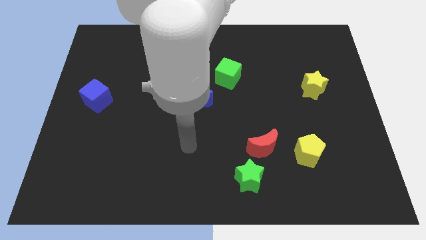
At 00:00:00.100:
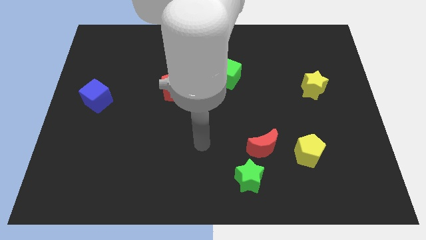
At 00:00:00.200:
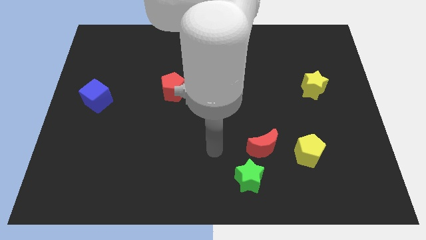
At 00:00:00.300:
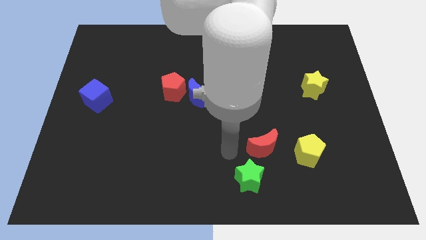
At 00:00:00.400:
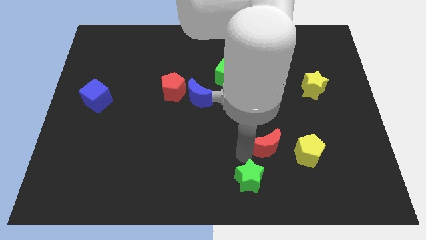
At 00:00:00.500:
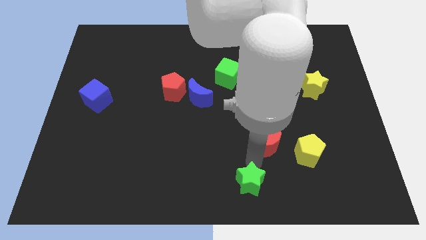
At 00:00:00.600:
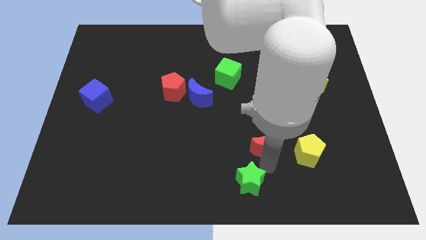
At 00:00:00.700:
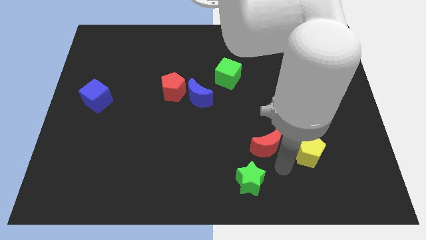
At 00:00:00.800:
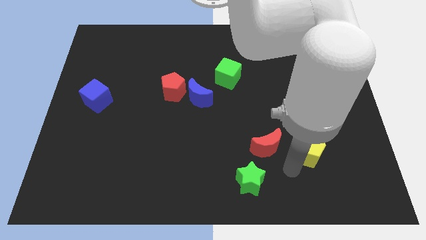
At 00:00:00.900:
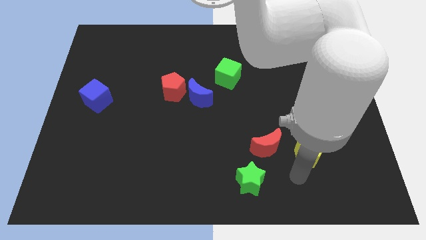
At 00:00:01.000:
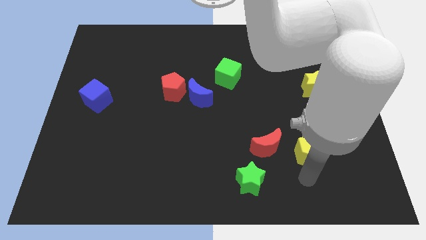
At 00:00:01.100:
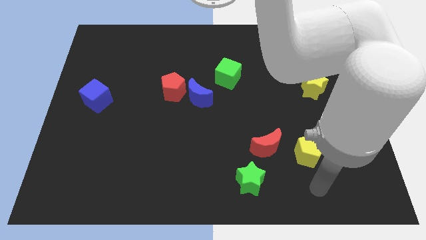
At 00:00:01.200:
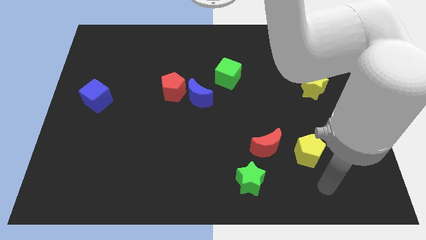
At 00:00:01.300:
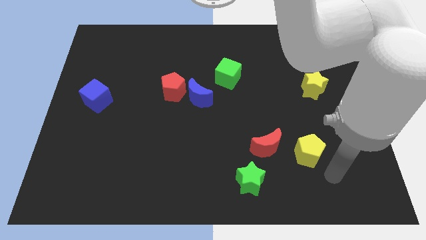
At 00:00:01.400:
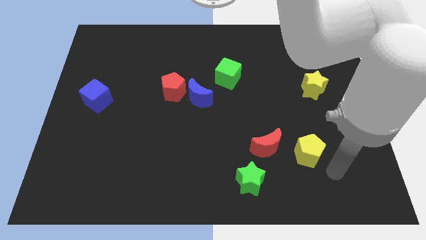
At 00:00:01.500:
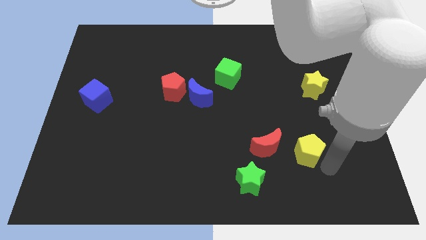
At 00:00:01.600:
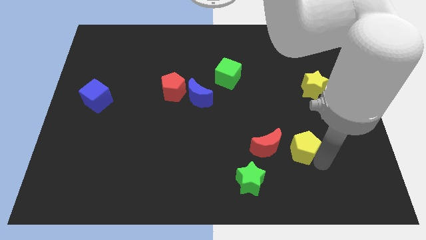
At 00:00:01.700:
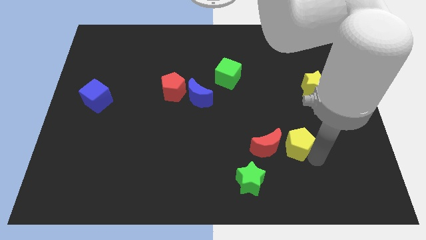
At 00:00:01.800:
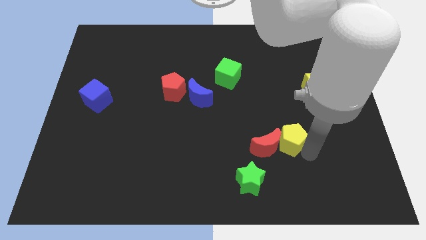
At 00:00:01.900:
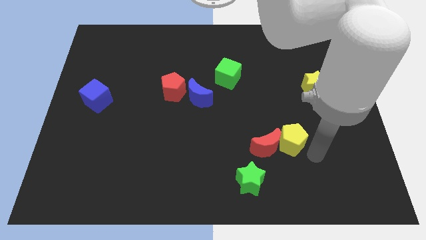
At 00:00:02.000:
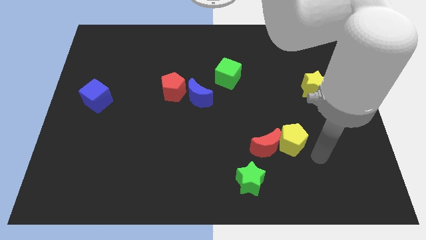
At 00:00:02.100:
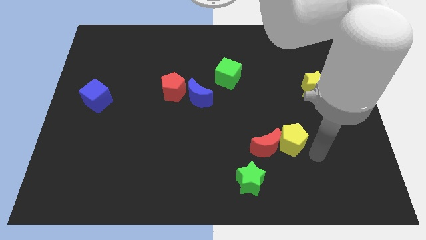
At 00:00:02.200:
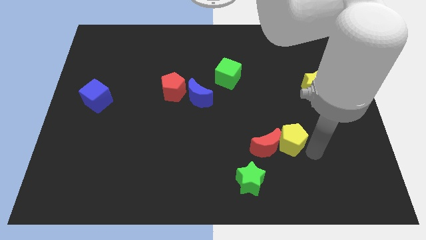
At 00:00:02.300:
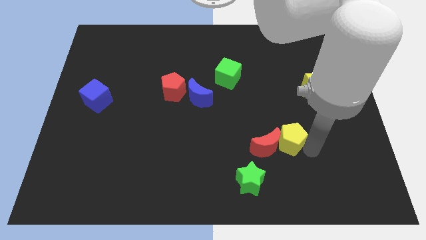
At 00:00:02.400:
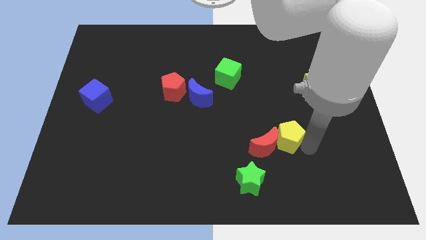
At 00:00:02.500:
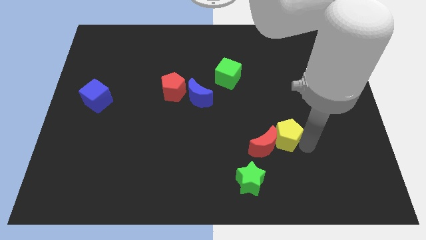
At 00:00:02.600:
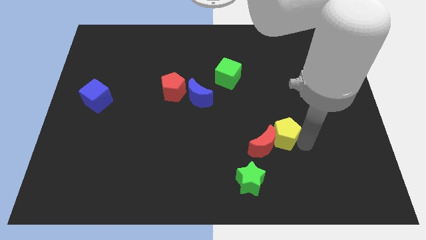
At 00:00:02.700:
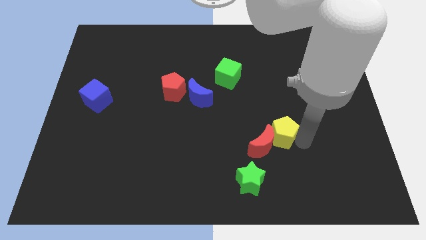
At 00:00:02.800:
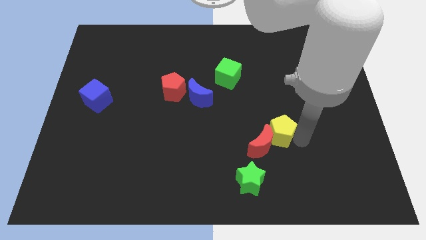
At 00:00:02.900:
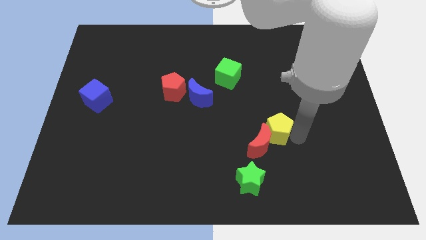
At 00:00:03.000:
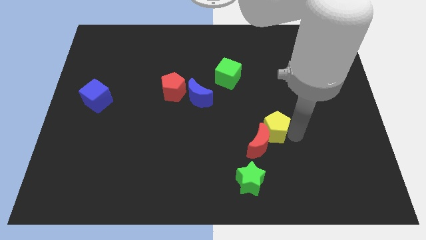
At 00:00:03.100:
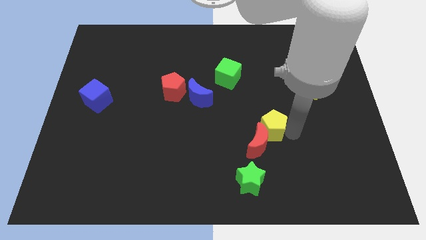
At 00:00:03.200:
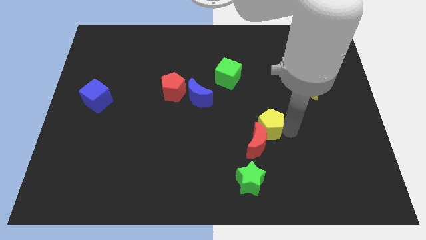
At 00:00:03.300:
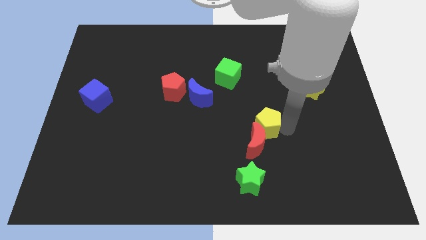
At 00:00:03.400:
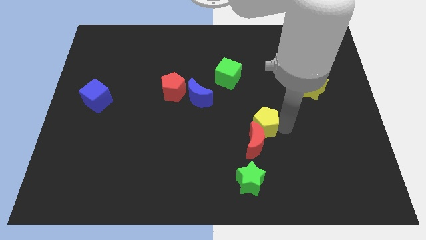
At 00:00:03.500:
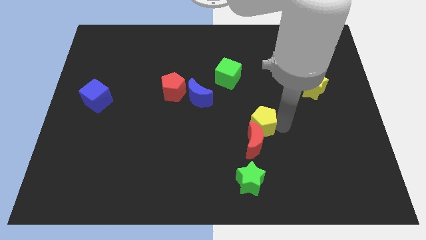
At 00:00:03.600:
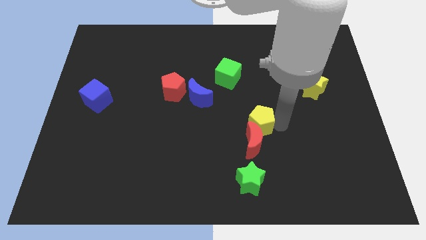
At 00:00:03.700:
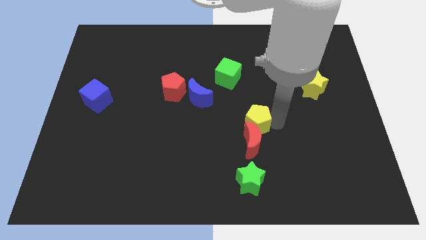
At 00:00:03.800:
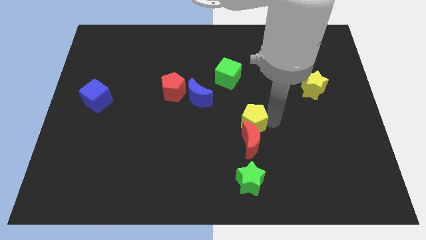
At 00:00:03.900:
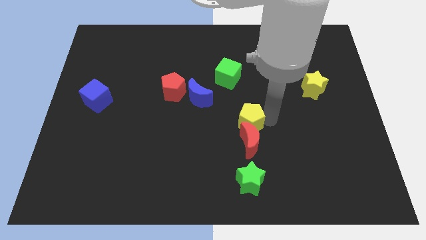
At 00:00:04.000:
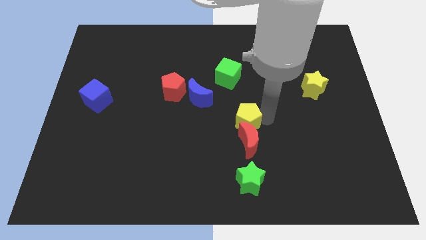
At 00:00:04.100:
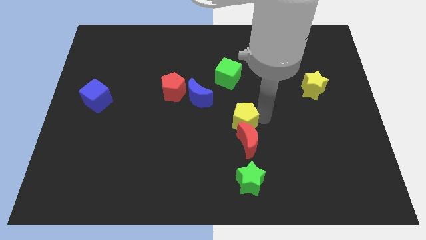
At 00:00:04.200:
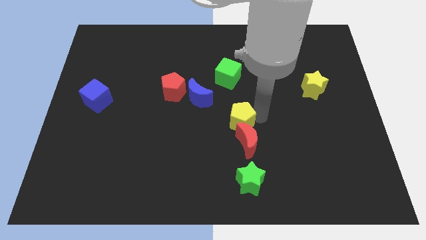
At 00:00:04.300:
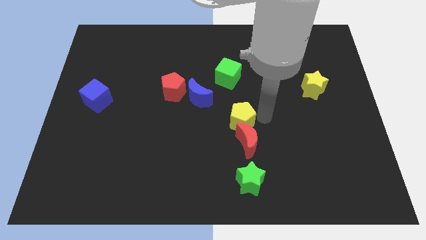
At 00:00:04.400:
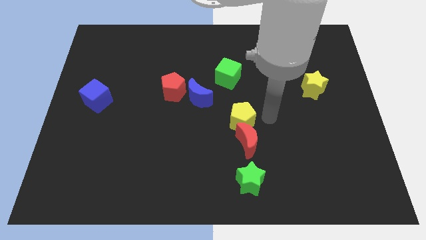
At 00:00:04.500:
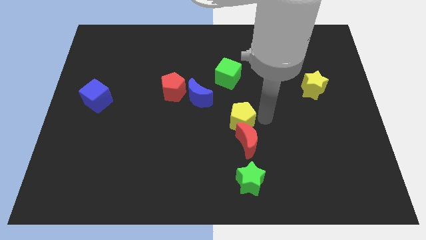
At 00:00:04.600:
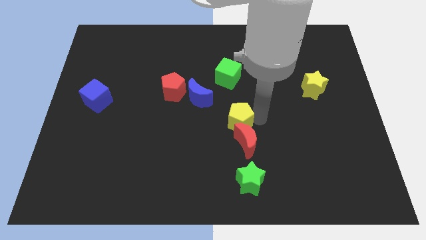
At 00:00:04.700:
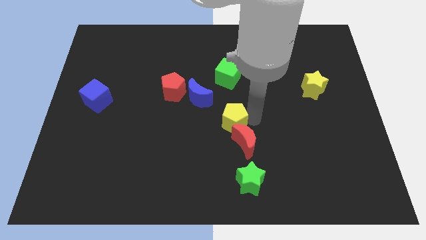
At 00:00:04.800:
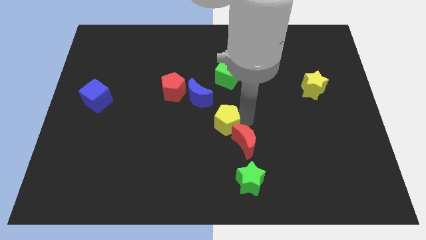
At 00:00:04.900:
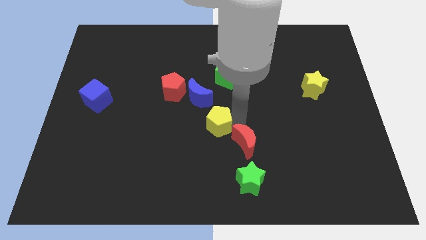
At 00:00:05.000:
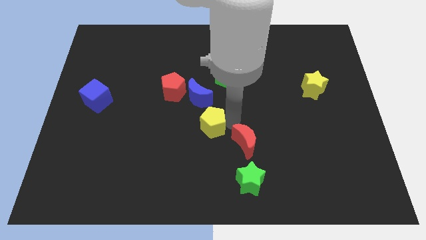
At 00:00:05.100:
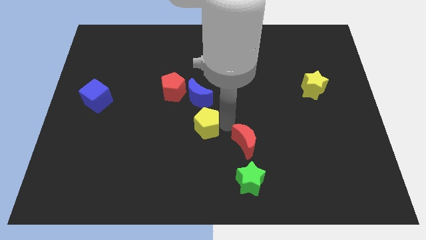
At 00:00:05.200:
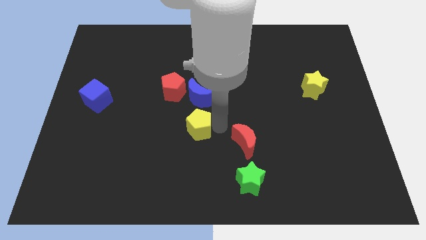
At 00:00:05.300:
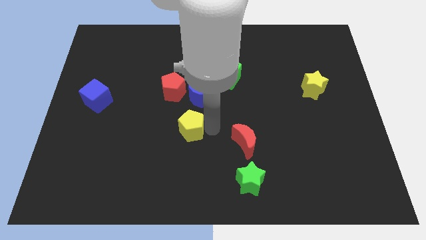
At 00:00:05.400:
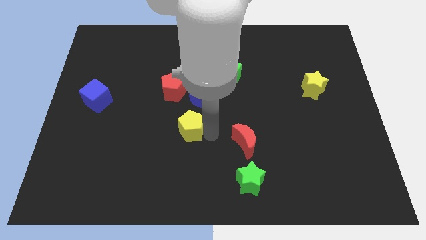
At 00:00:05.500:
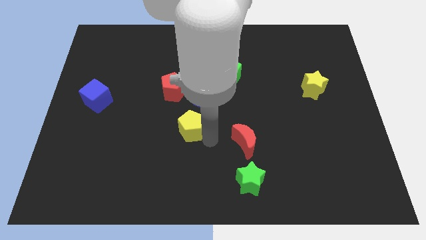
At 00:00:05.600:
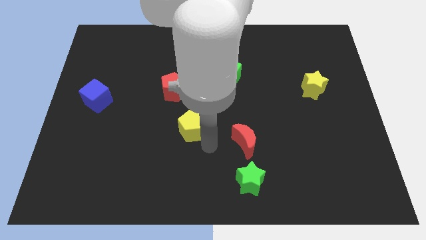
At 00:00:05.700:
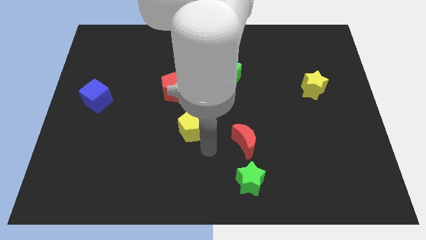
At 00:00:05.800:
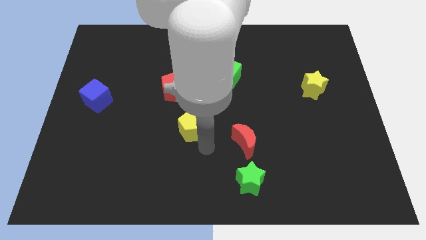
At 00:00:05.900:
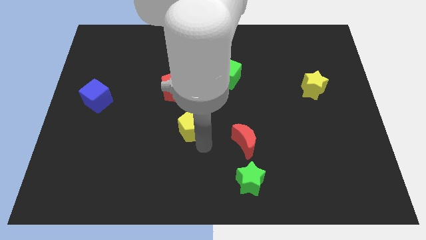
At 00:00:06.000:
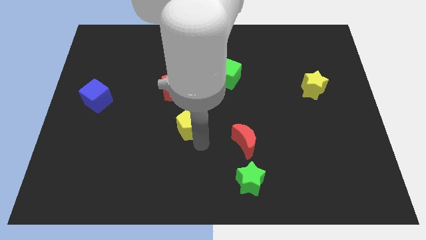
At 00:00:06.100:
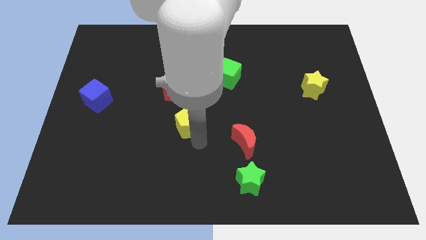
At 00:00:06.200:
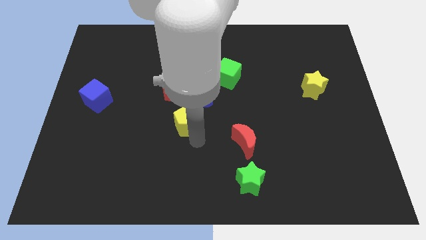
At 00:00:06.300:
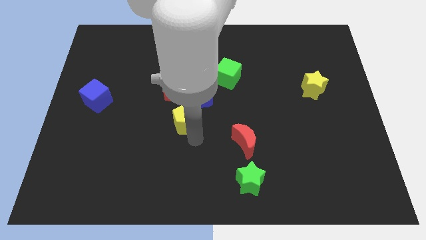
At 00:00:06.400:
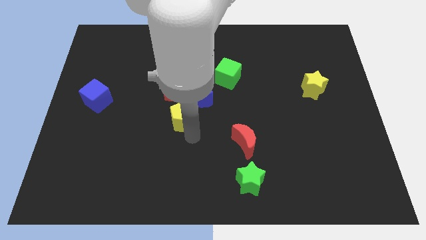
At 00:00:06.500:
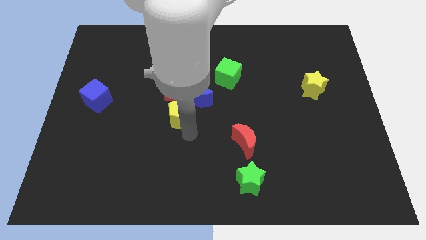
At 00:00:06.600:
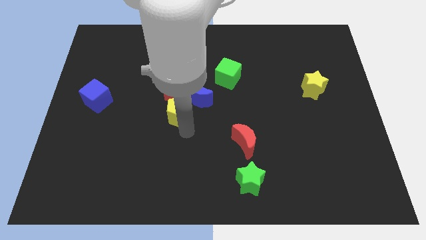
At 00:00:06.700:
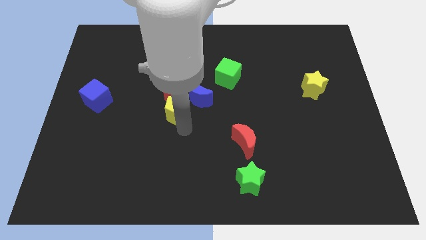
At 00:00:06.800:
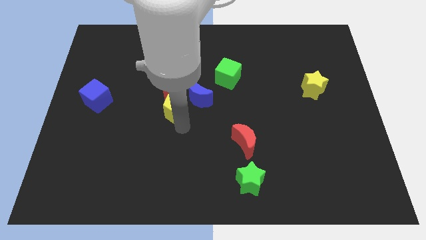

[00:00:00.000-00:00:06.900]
put the yellow pentagon to the red pentagon
